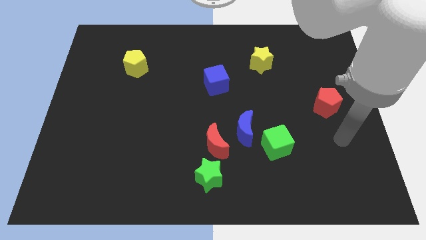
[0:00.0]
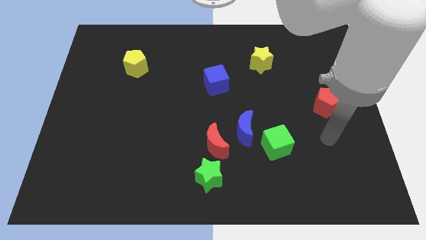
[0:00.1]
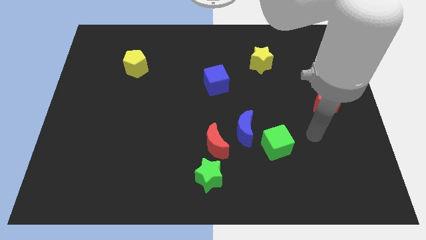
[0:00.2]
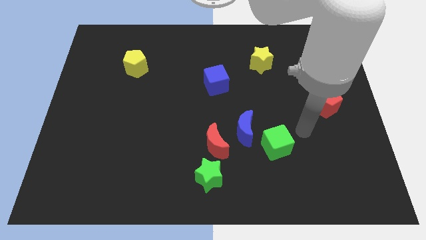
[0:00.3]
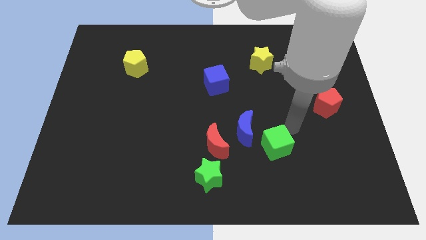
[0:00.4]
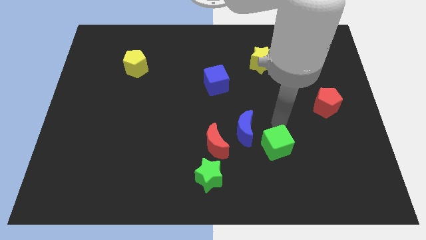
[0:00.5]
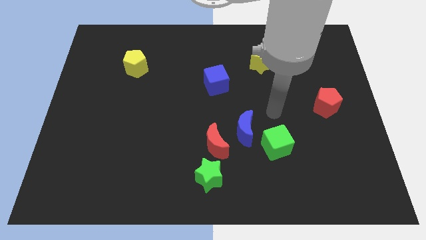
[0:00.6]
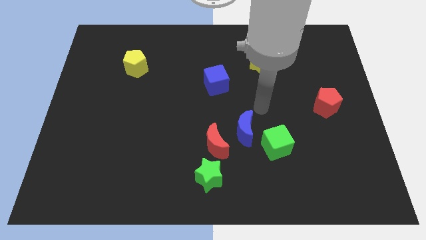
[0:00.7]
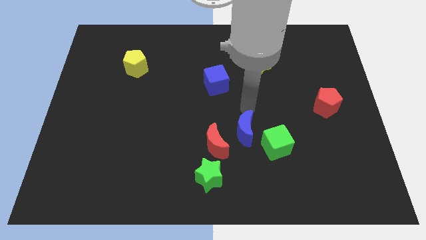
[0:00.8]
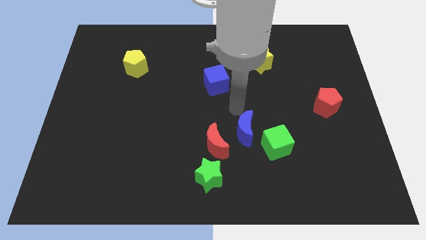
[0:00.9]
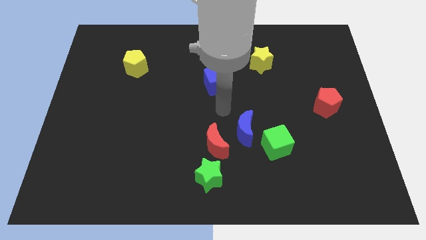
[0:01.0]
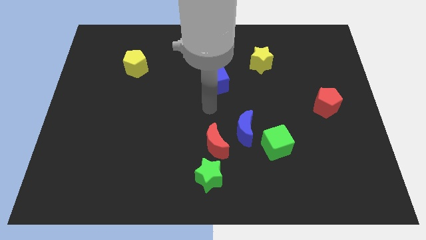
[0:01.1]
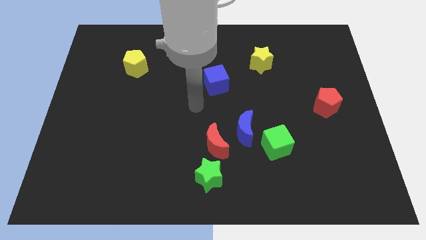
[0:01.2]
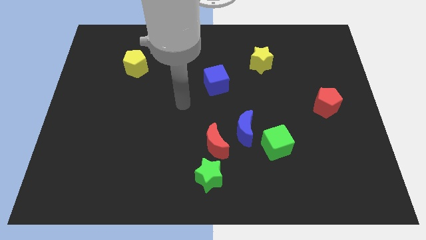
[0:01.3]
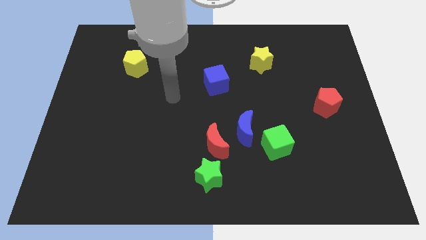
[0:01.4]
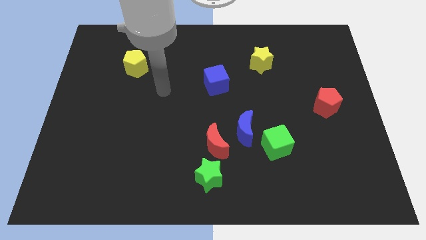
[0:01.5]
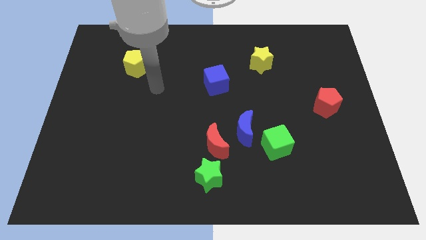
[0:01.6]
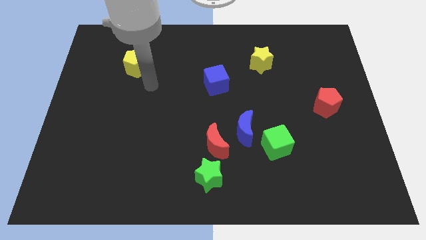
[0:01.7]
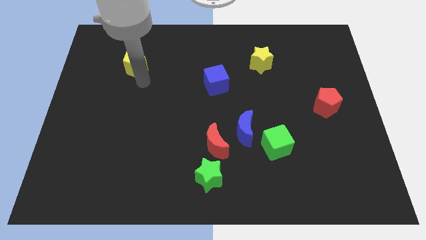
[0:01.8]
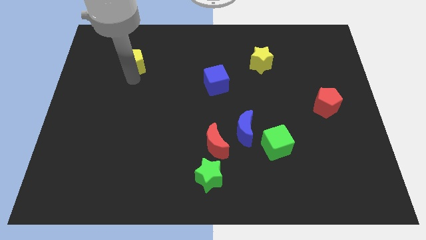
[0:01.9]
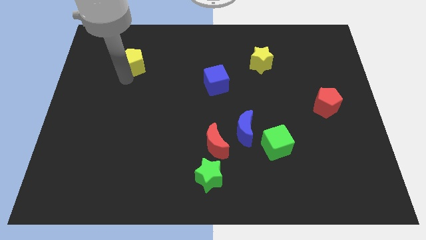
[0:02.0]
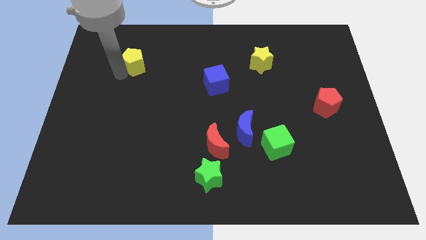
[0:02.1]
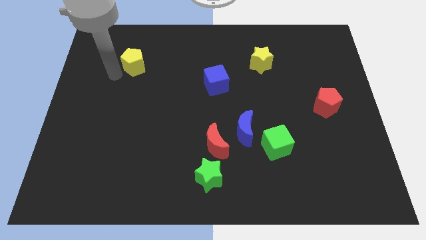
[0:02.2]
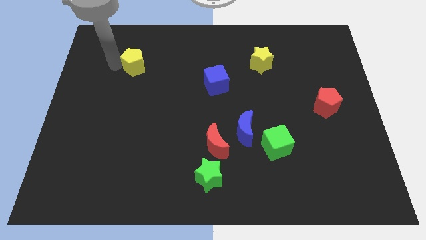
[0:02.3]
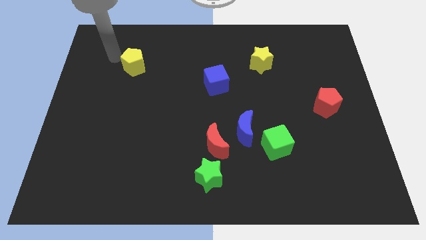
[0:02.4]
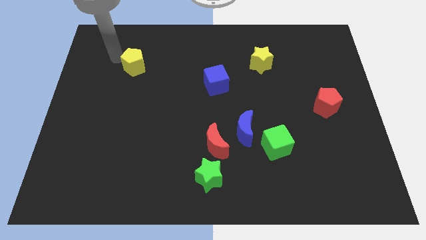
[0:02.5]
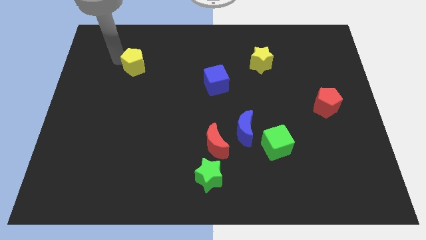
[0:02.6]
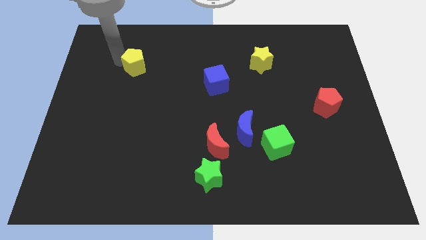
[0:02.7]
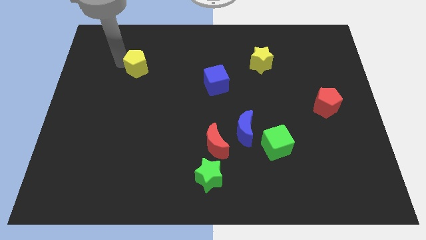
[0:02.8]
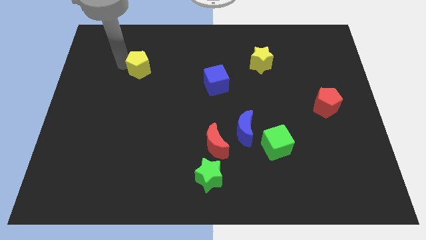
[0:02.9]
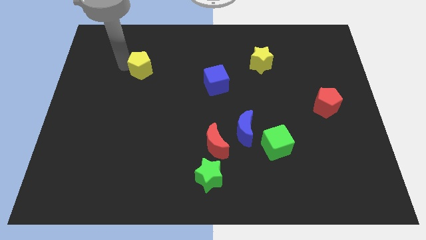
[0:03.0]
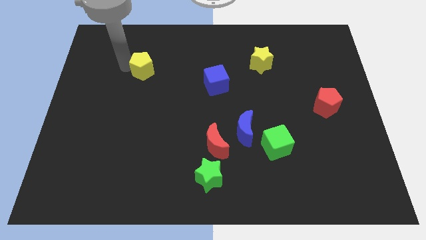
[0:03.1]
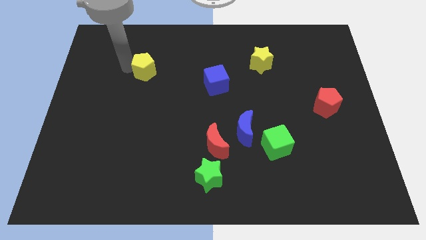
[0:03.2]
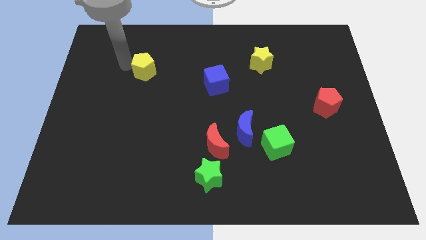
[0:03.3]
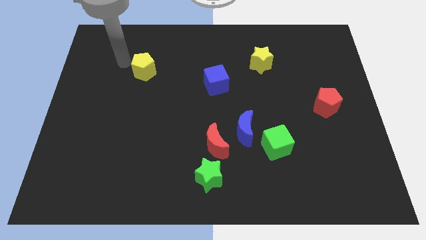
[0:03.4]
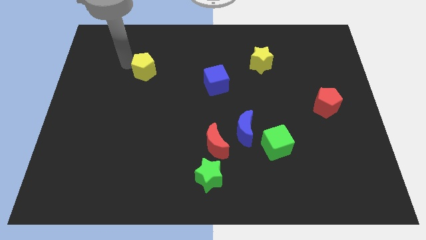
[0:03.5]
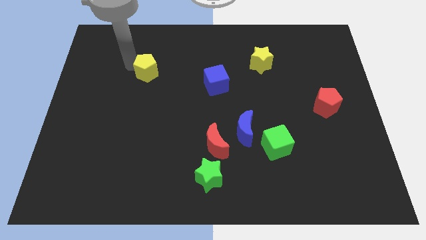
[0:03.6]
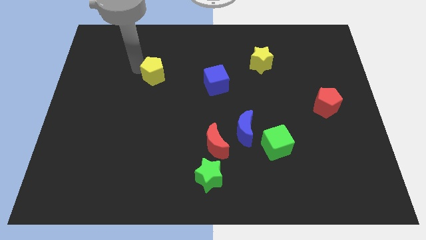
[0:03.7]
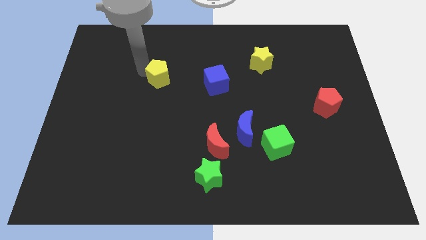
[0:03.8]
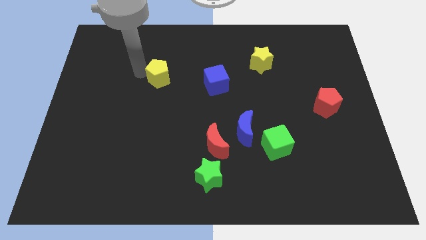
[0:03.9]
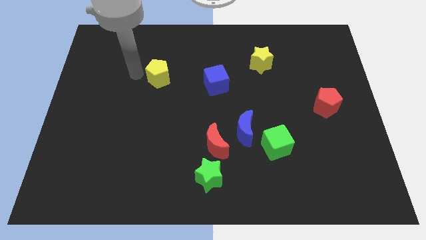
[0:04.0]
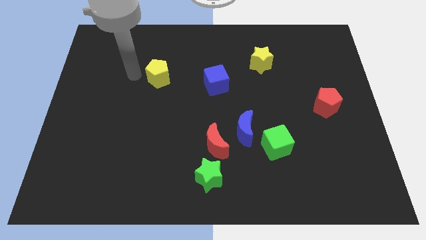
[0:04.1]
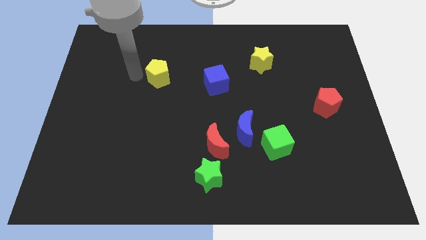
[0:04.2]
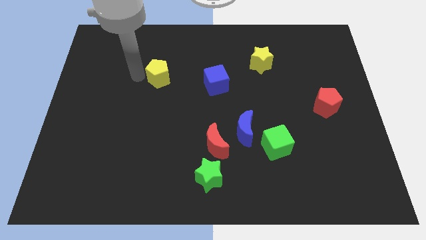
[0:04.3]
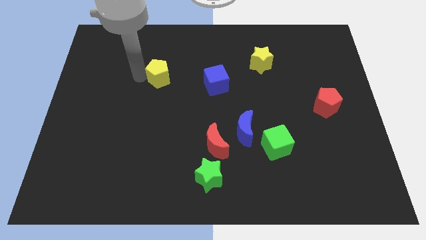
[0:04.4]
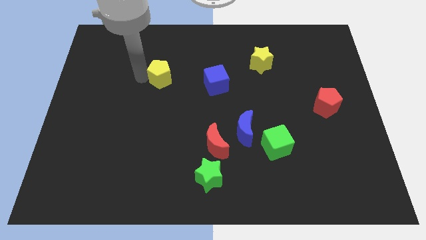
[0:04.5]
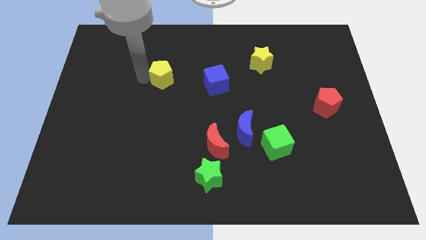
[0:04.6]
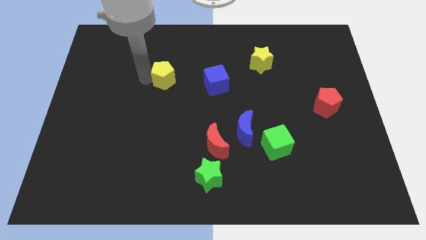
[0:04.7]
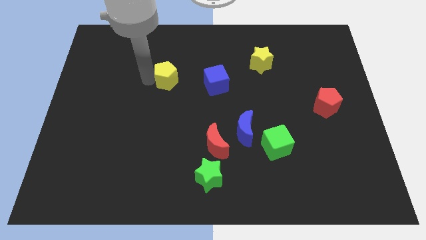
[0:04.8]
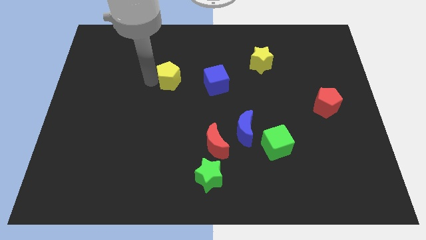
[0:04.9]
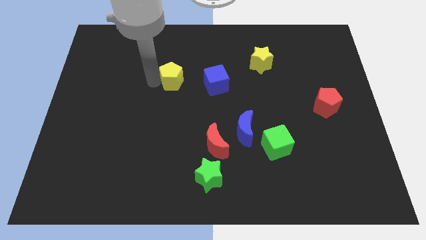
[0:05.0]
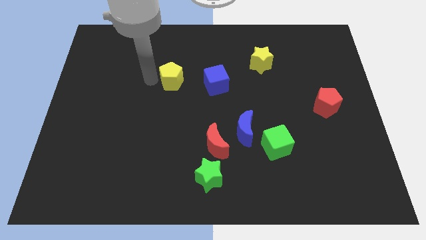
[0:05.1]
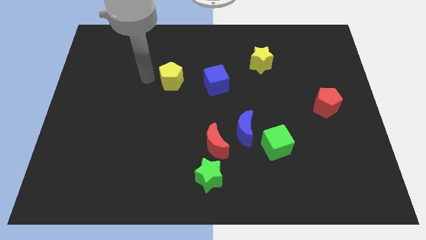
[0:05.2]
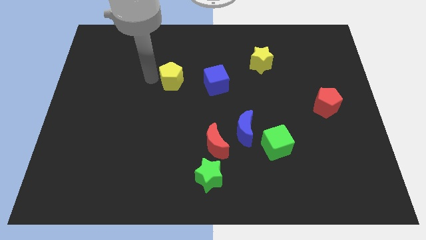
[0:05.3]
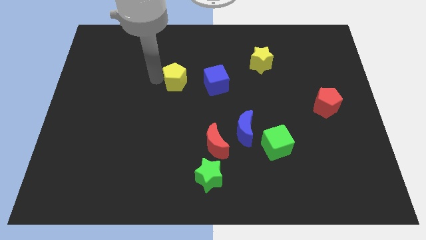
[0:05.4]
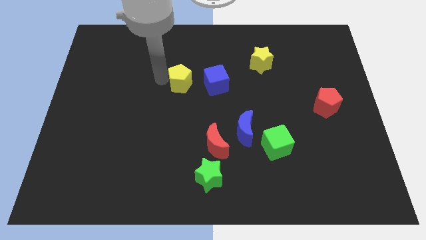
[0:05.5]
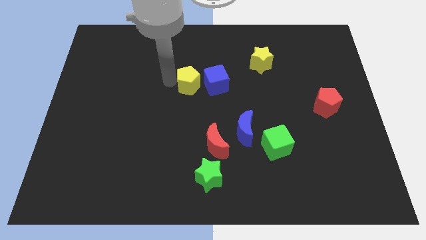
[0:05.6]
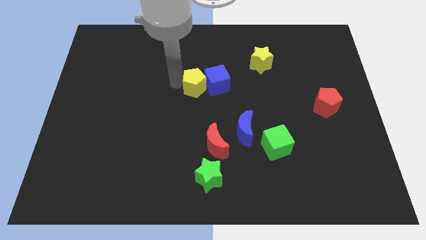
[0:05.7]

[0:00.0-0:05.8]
put the yellow pentagon towards the blue cube

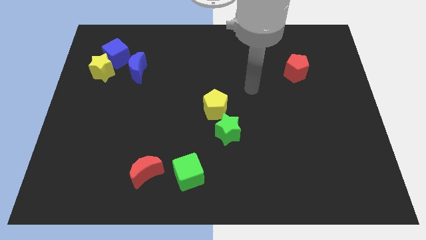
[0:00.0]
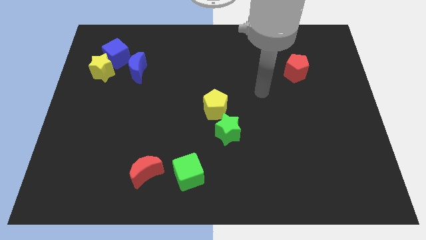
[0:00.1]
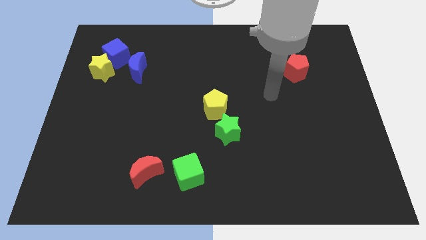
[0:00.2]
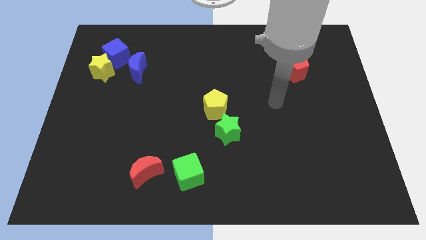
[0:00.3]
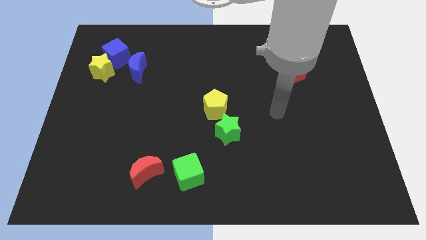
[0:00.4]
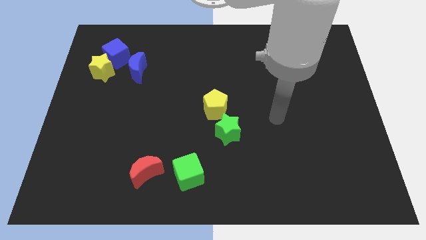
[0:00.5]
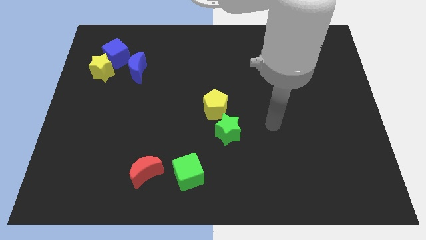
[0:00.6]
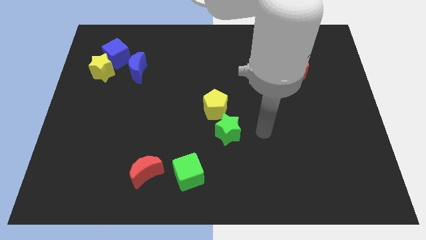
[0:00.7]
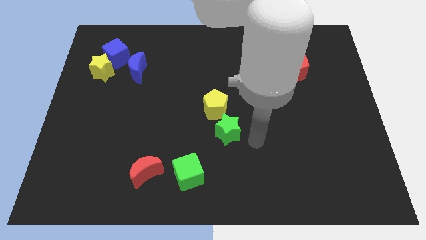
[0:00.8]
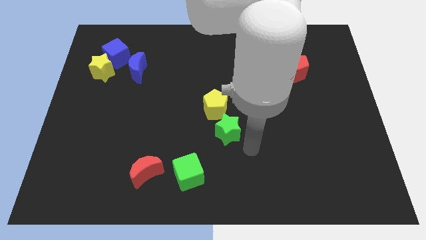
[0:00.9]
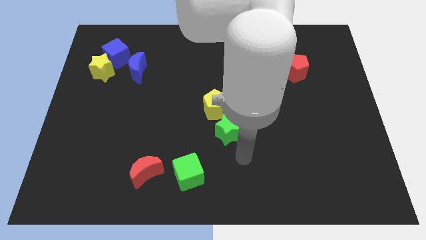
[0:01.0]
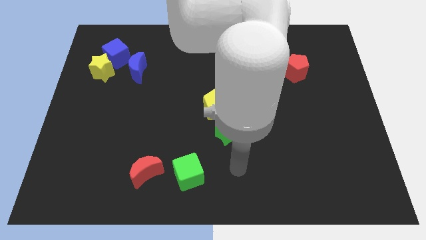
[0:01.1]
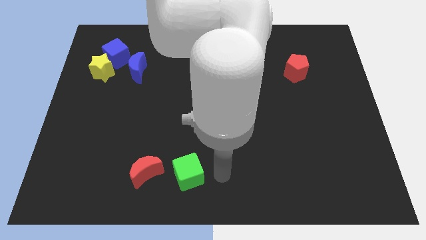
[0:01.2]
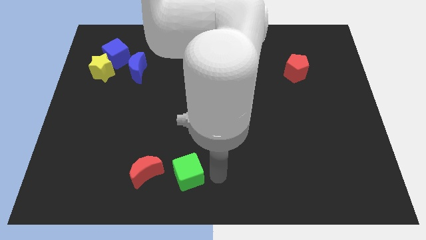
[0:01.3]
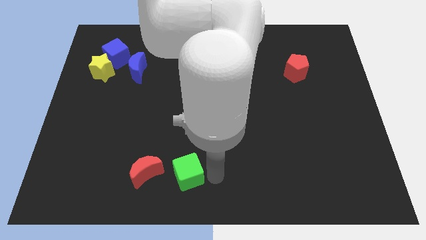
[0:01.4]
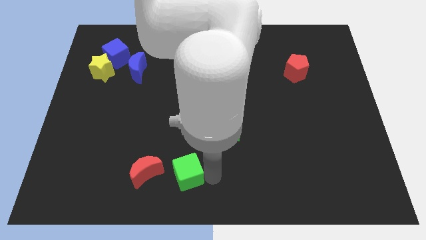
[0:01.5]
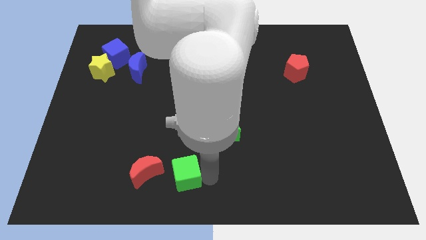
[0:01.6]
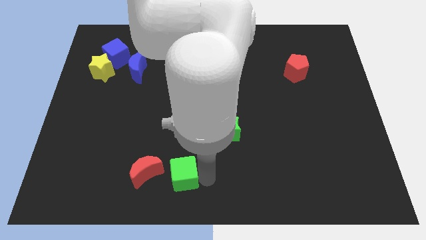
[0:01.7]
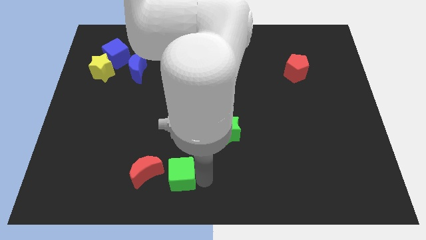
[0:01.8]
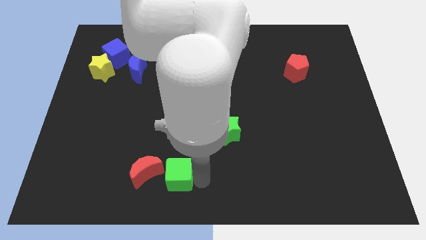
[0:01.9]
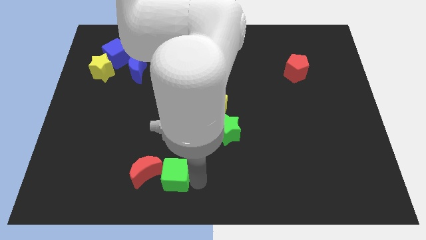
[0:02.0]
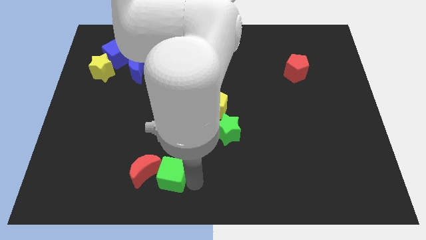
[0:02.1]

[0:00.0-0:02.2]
move the green cube close to the red moon
